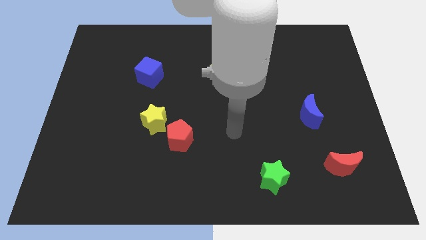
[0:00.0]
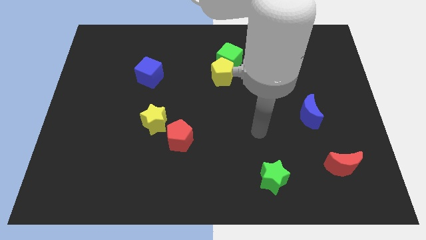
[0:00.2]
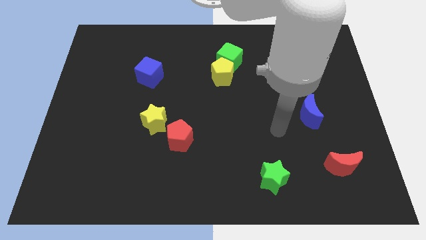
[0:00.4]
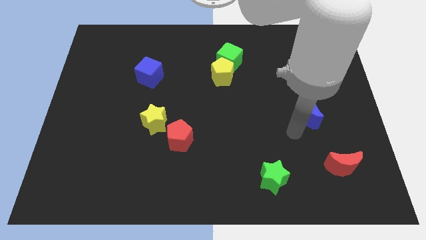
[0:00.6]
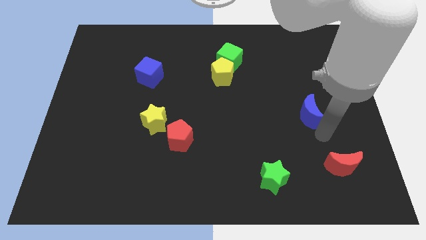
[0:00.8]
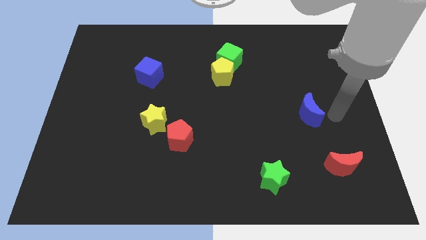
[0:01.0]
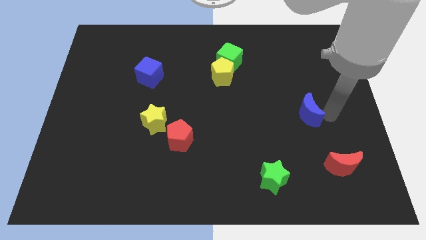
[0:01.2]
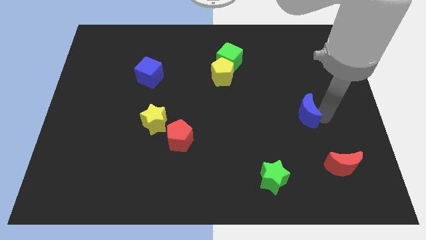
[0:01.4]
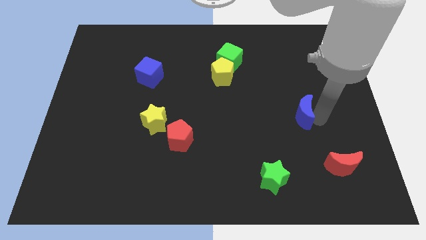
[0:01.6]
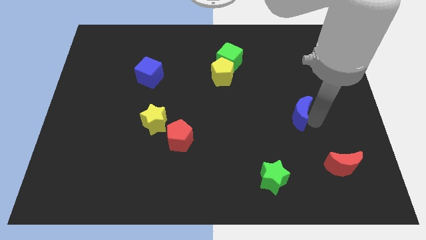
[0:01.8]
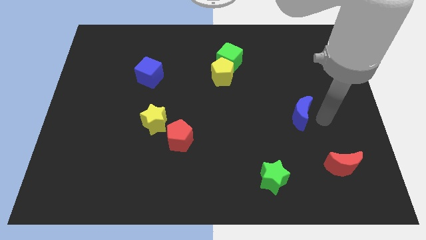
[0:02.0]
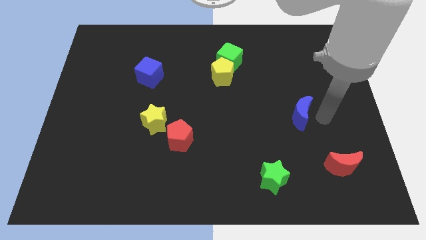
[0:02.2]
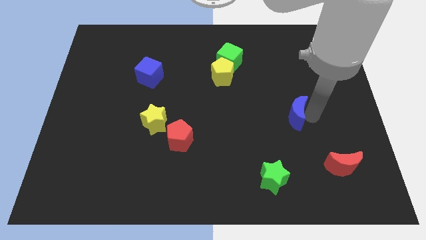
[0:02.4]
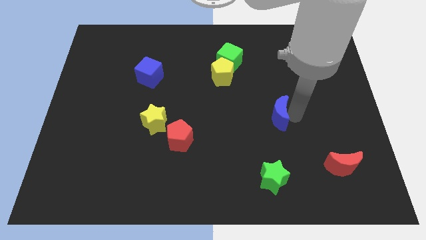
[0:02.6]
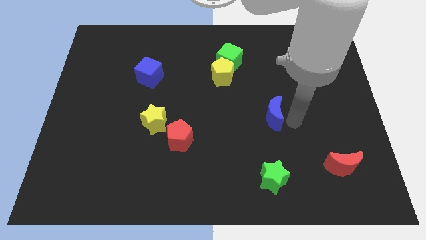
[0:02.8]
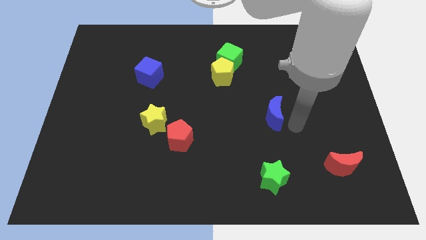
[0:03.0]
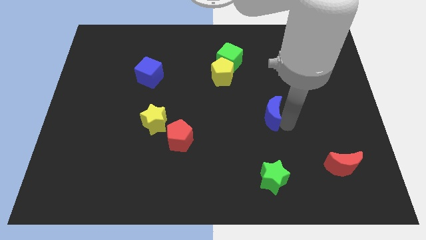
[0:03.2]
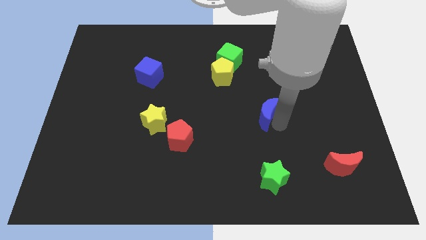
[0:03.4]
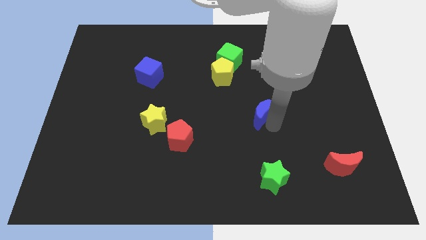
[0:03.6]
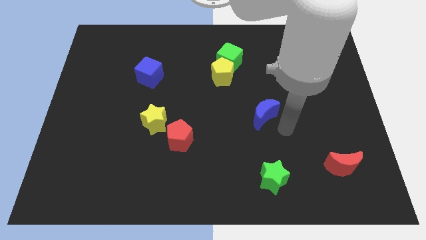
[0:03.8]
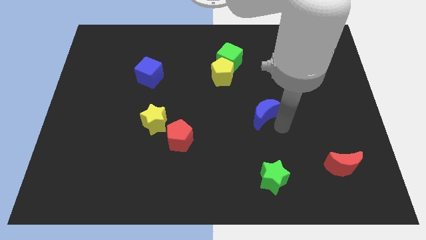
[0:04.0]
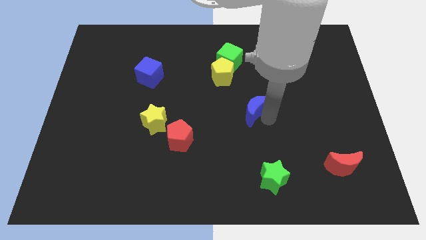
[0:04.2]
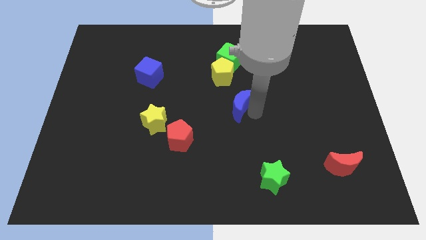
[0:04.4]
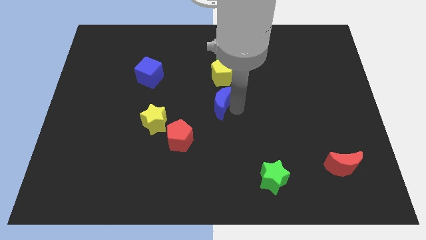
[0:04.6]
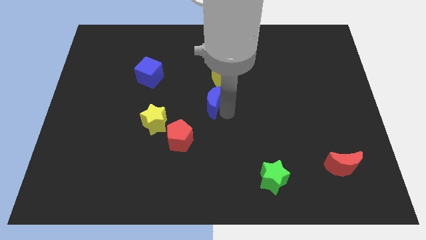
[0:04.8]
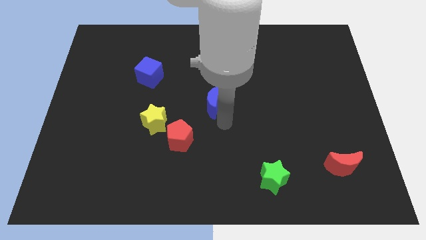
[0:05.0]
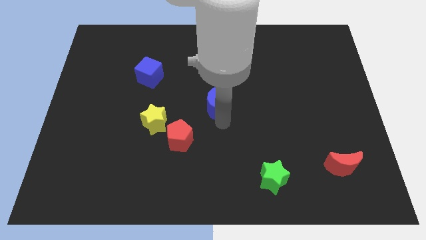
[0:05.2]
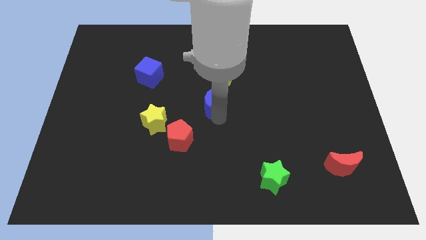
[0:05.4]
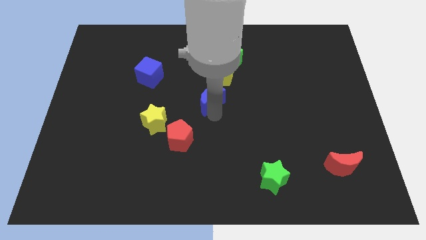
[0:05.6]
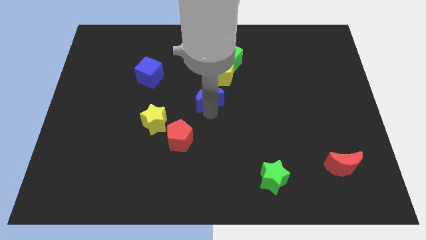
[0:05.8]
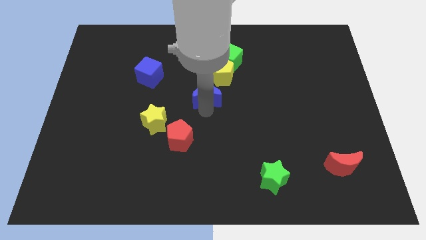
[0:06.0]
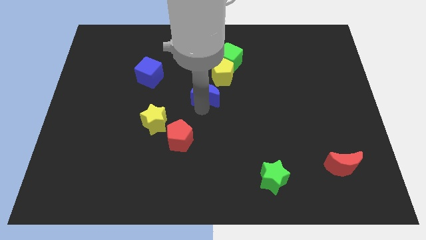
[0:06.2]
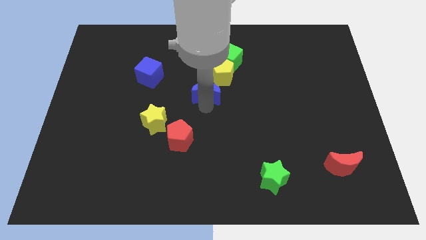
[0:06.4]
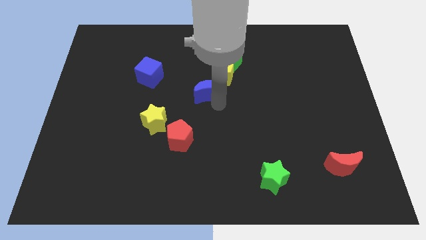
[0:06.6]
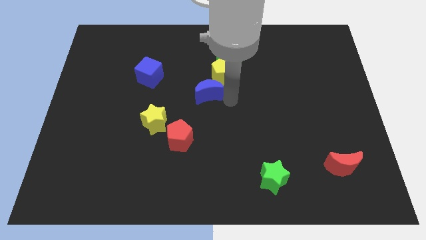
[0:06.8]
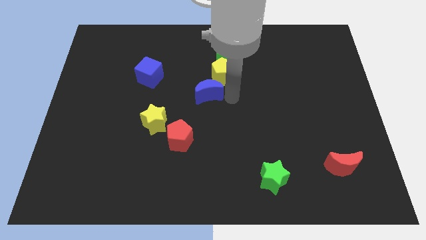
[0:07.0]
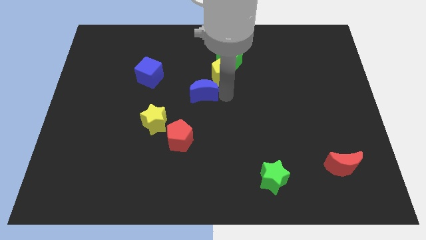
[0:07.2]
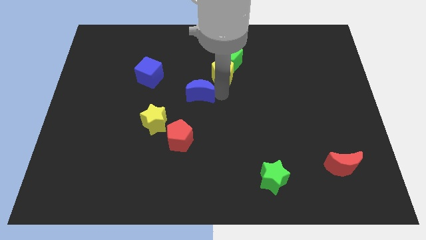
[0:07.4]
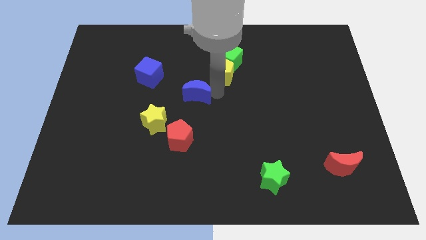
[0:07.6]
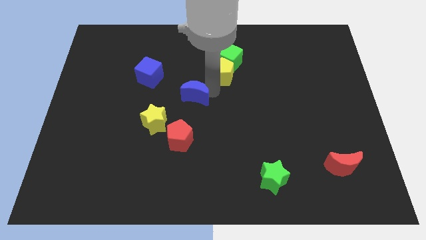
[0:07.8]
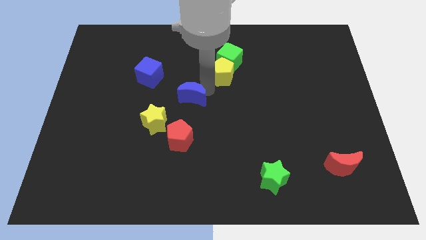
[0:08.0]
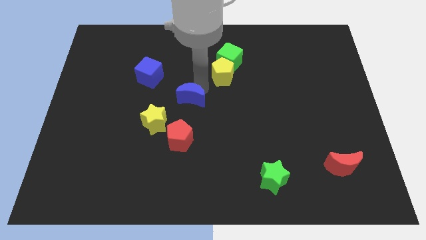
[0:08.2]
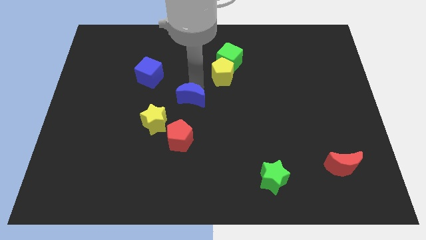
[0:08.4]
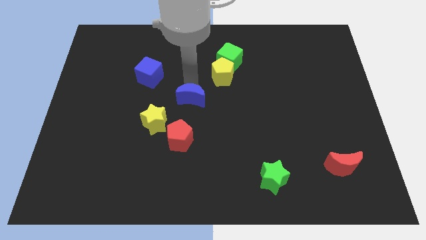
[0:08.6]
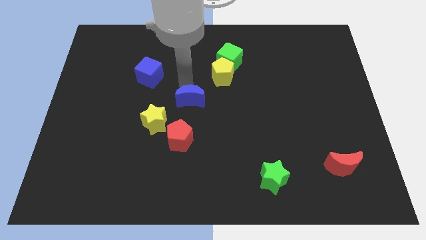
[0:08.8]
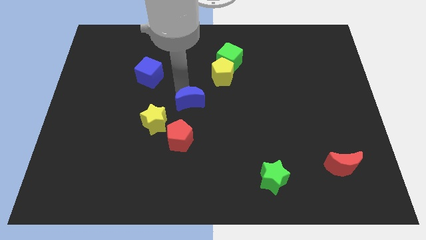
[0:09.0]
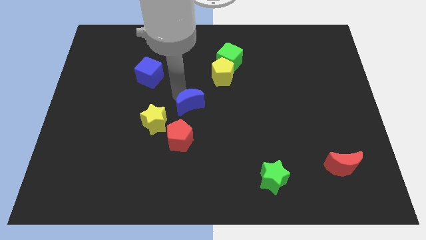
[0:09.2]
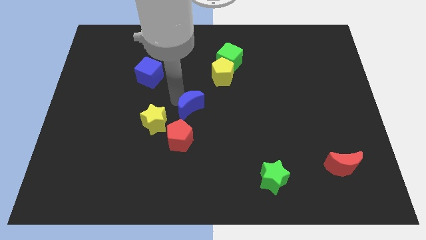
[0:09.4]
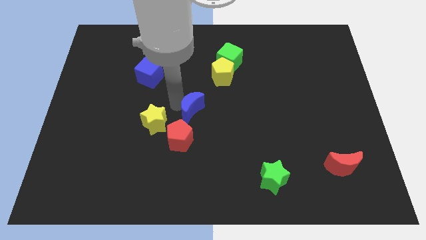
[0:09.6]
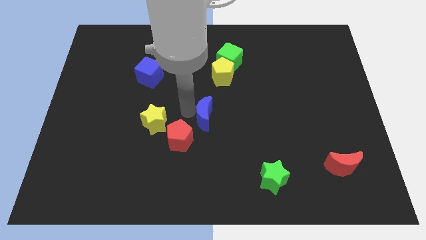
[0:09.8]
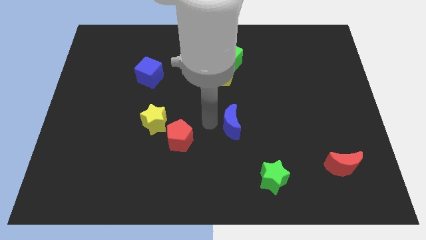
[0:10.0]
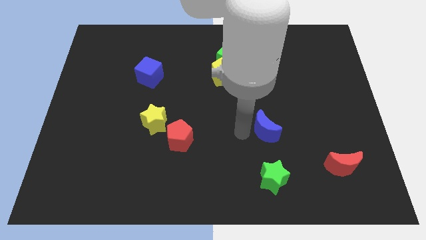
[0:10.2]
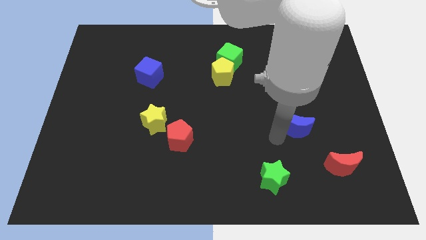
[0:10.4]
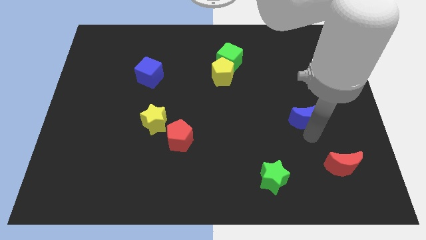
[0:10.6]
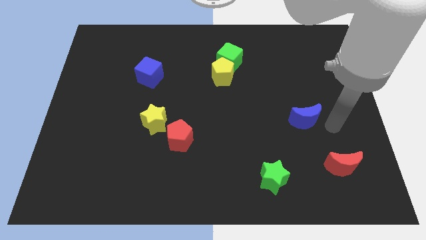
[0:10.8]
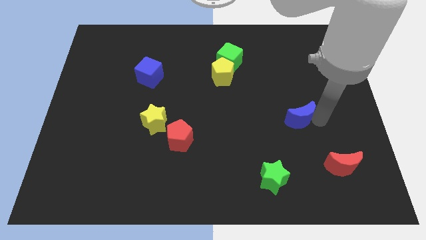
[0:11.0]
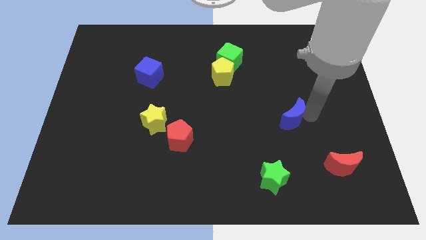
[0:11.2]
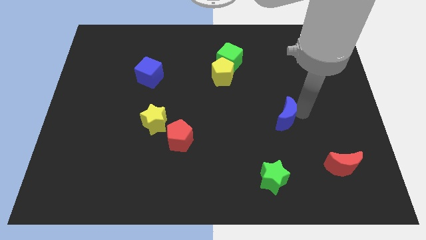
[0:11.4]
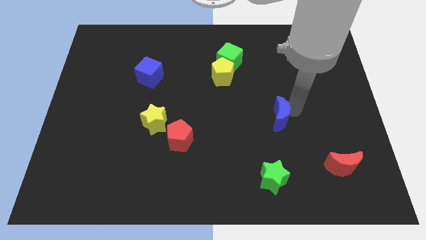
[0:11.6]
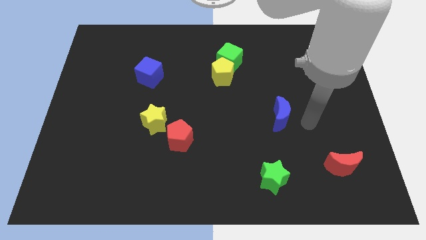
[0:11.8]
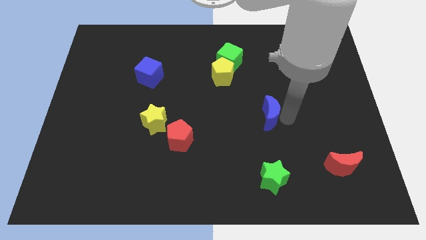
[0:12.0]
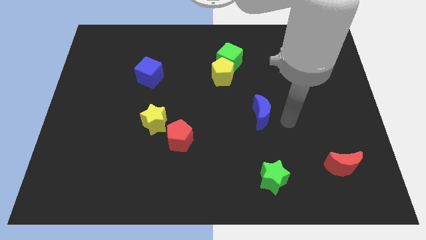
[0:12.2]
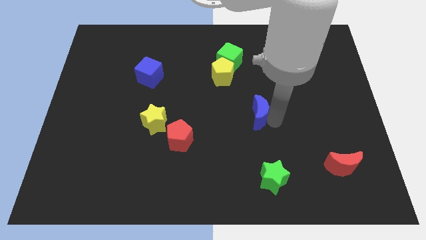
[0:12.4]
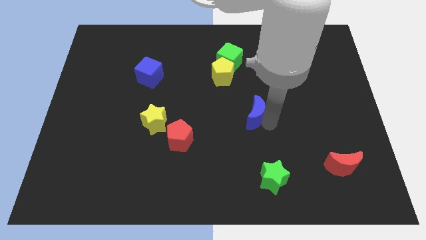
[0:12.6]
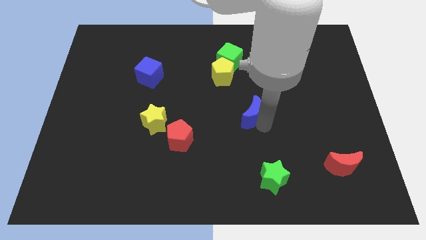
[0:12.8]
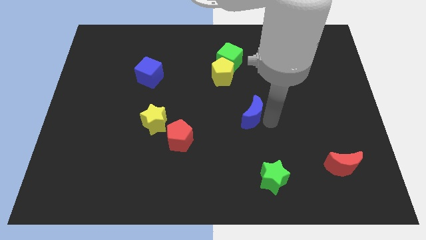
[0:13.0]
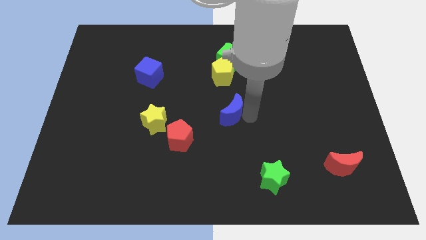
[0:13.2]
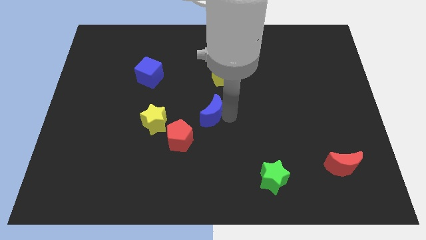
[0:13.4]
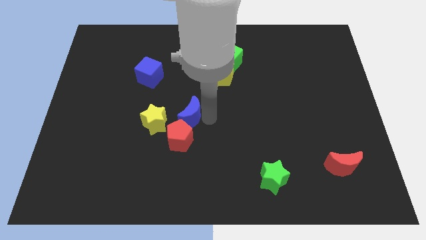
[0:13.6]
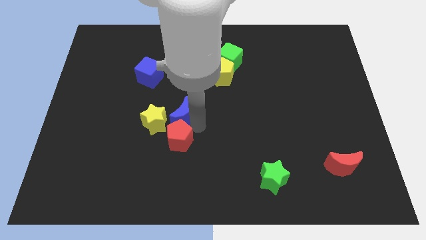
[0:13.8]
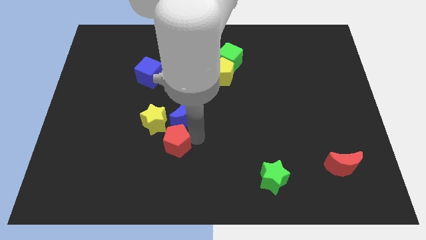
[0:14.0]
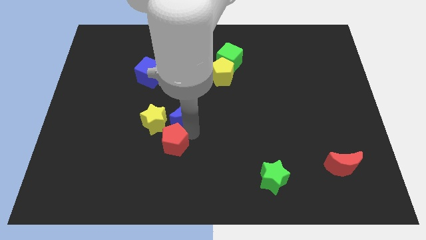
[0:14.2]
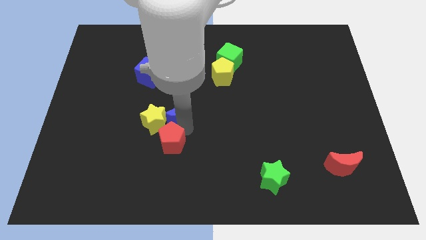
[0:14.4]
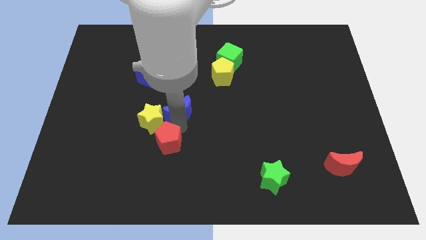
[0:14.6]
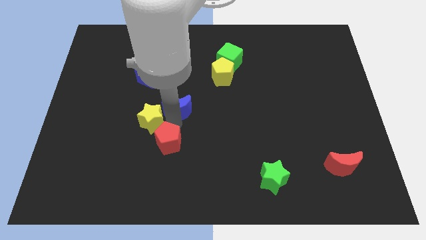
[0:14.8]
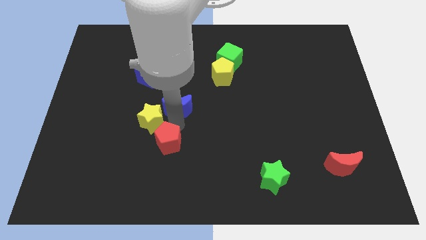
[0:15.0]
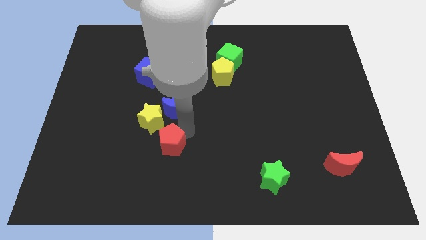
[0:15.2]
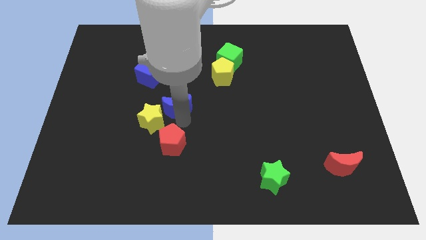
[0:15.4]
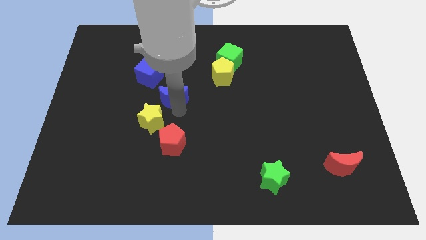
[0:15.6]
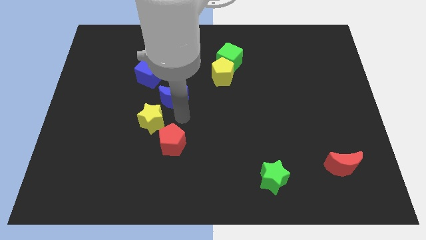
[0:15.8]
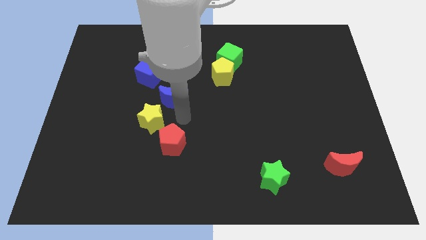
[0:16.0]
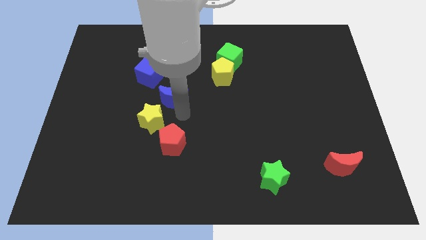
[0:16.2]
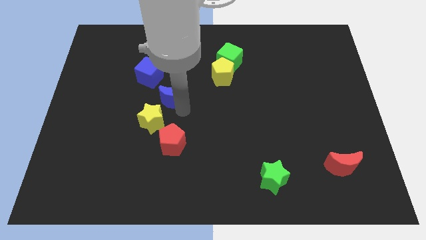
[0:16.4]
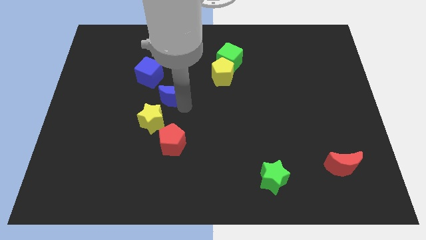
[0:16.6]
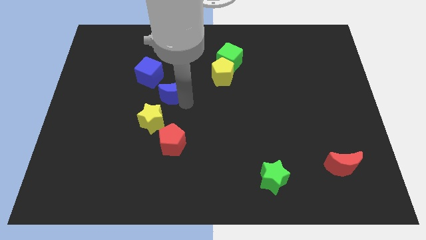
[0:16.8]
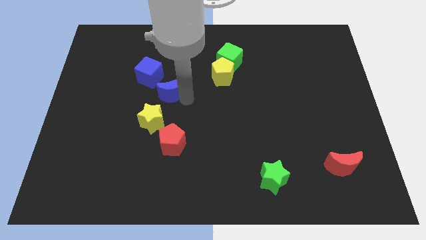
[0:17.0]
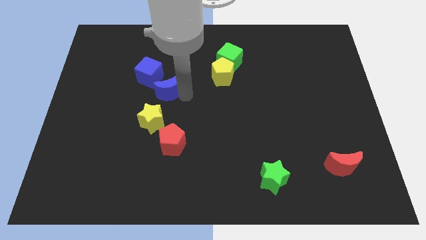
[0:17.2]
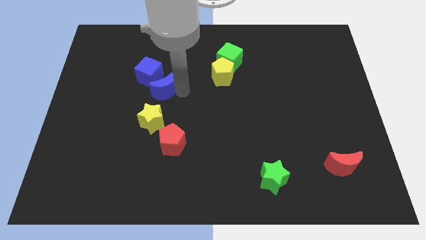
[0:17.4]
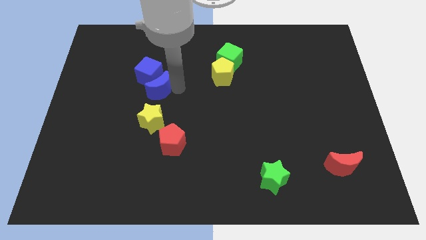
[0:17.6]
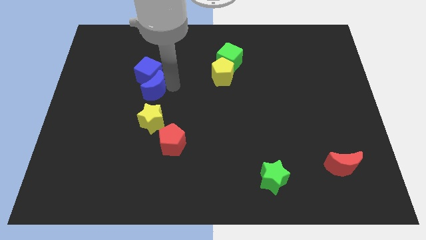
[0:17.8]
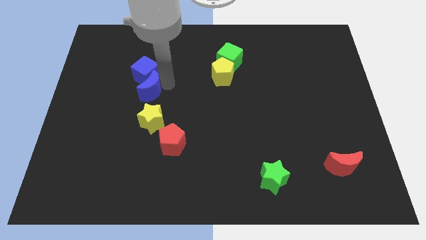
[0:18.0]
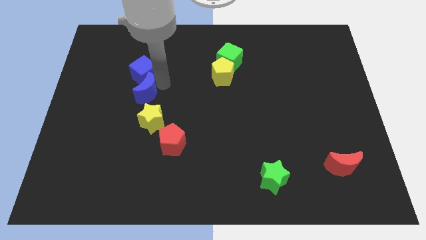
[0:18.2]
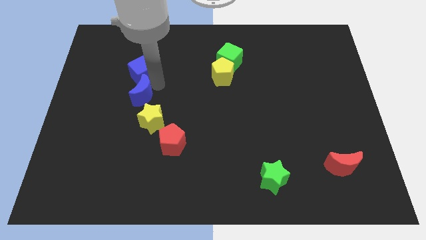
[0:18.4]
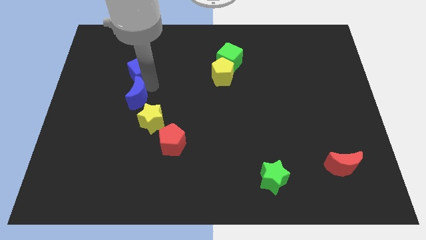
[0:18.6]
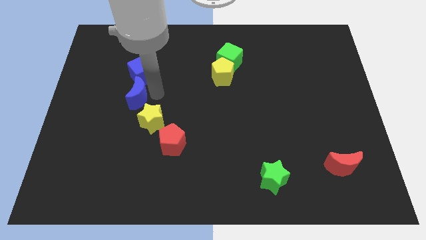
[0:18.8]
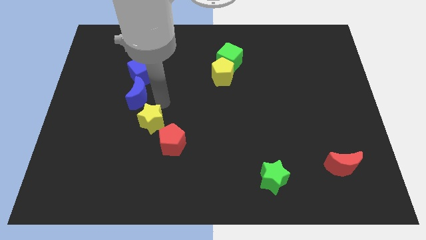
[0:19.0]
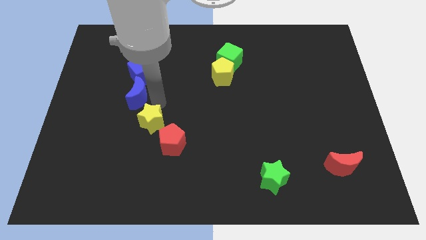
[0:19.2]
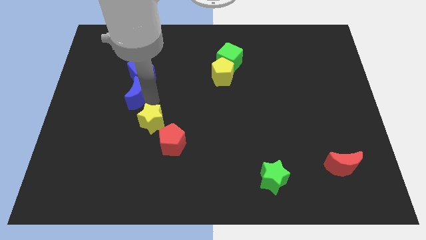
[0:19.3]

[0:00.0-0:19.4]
move the blue moon to the bottom left of the blue cube
